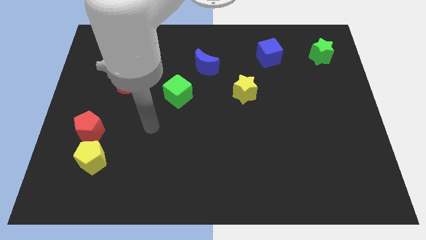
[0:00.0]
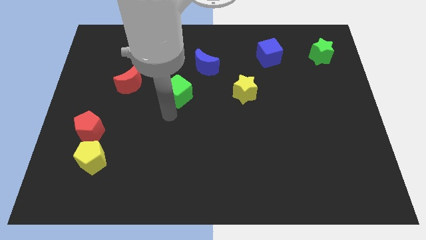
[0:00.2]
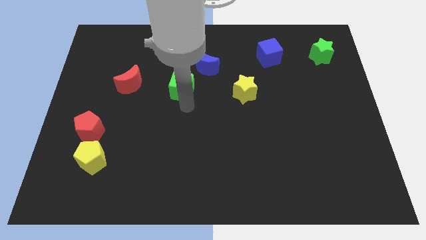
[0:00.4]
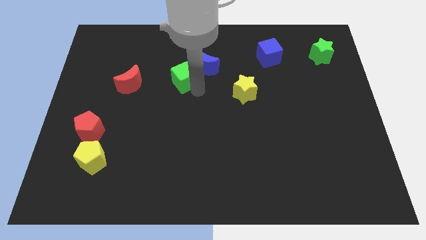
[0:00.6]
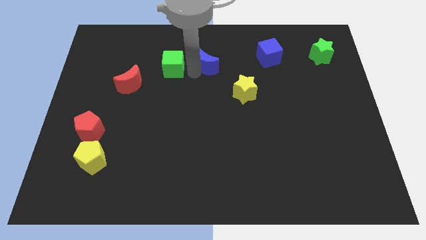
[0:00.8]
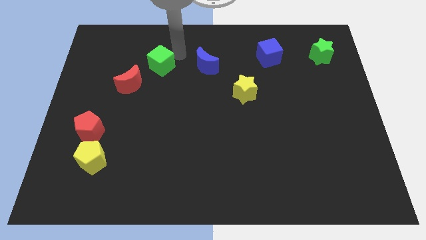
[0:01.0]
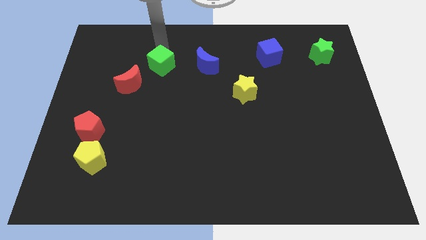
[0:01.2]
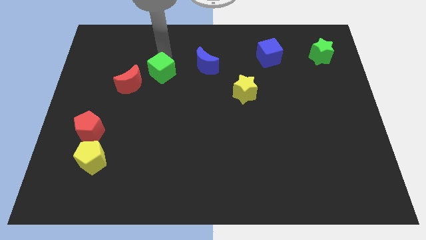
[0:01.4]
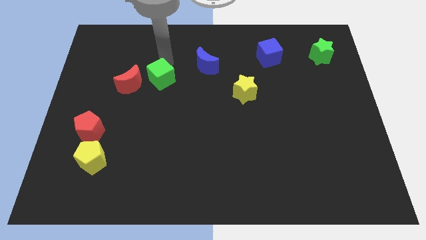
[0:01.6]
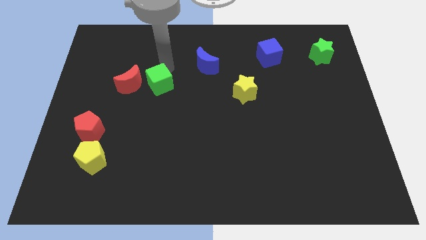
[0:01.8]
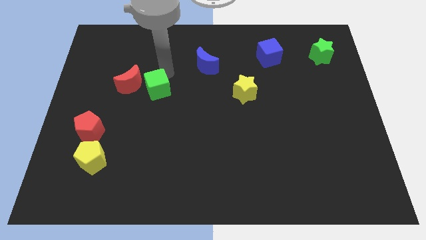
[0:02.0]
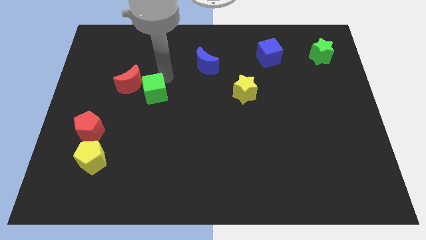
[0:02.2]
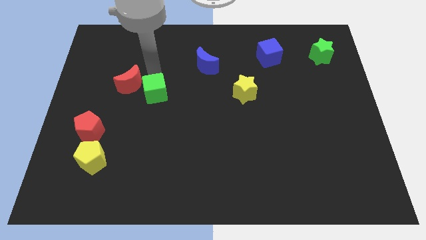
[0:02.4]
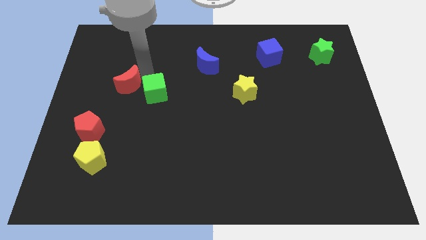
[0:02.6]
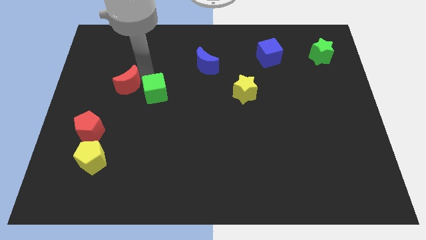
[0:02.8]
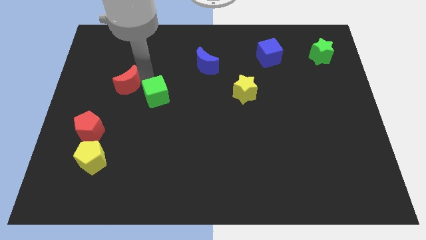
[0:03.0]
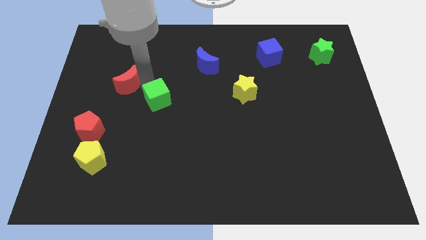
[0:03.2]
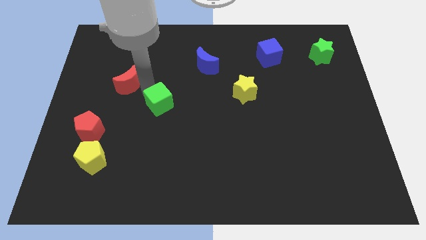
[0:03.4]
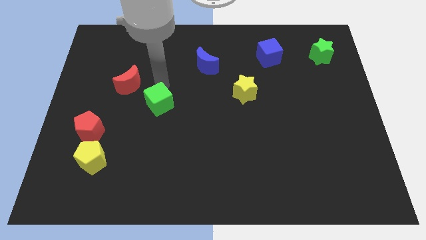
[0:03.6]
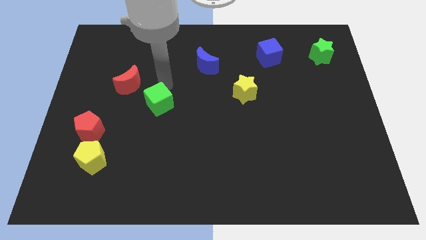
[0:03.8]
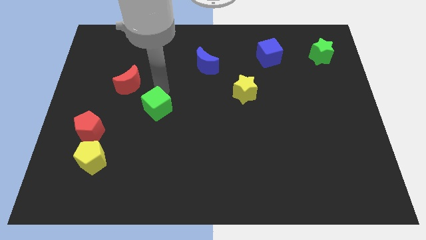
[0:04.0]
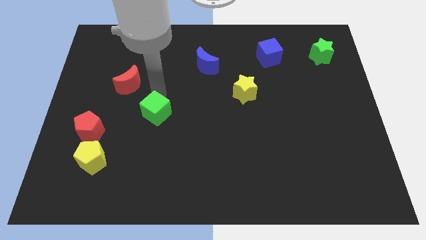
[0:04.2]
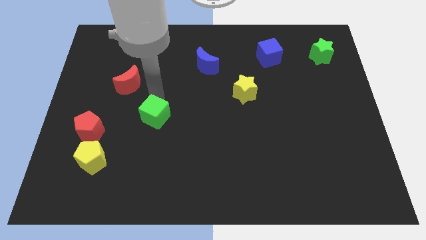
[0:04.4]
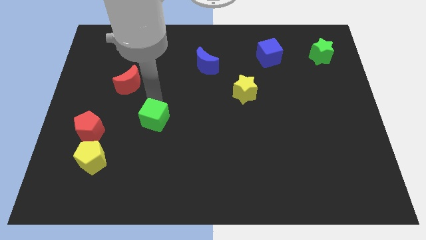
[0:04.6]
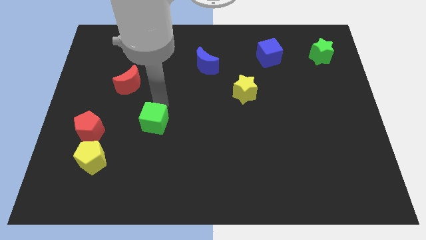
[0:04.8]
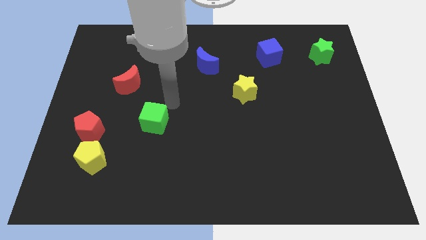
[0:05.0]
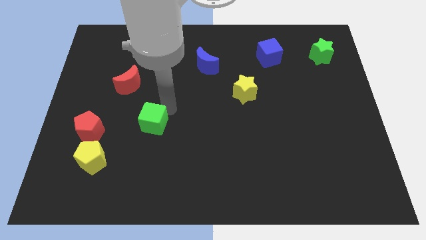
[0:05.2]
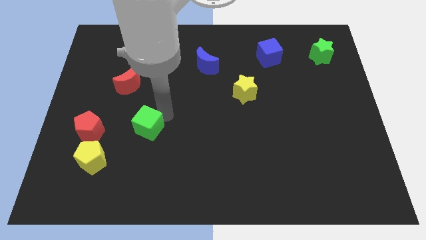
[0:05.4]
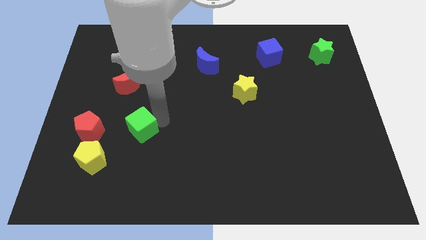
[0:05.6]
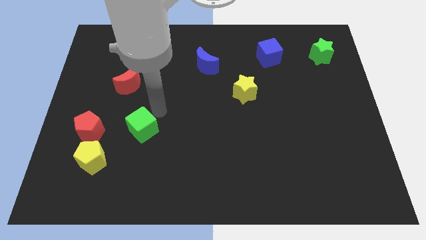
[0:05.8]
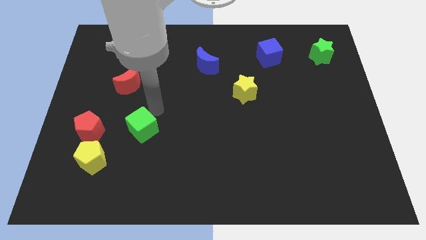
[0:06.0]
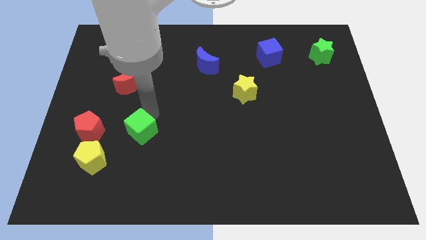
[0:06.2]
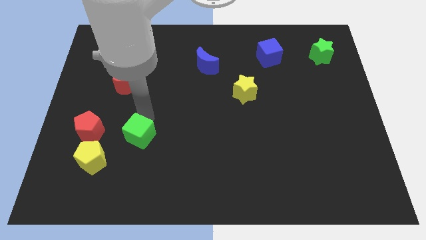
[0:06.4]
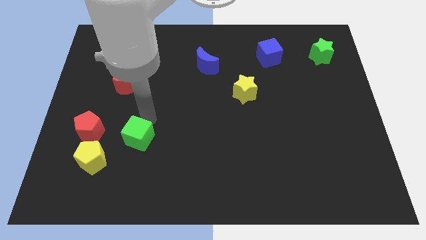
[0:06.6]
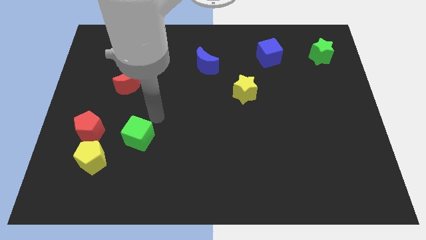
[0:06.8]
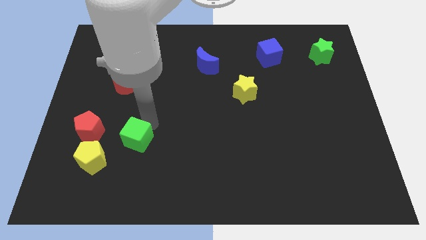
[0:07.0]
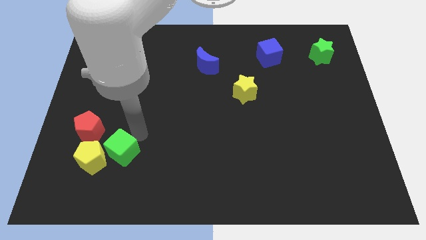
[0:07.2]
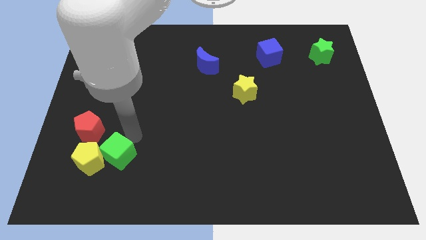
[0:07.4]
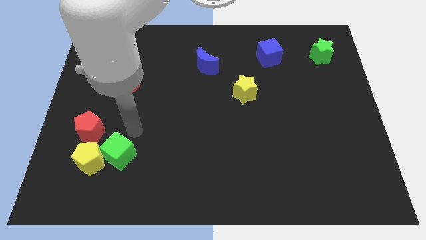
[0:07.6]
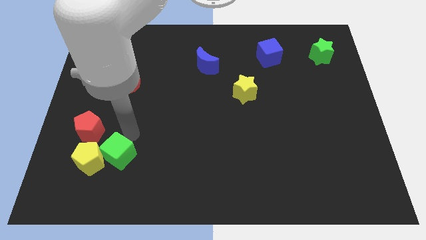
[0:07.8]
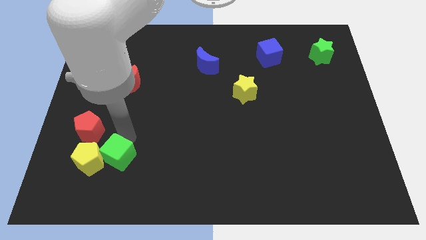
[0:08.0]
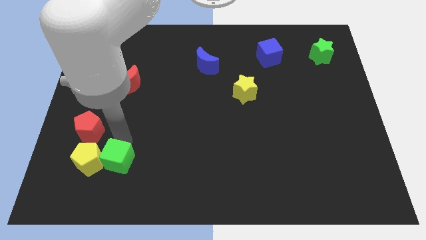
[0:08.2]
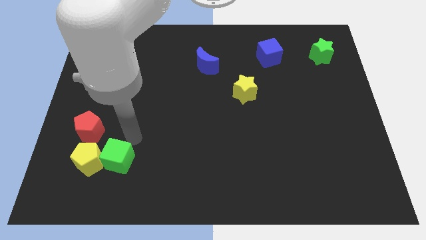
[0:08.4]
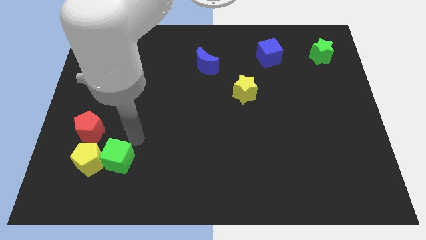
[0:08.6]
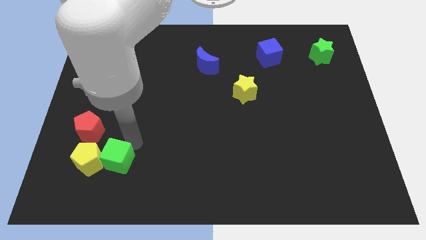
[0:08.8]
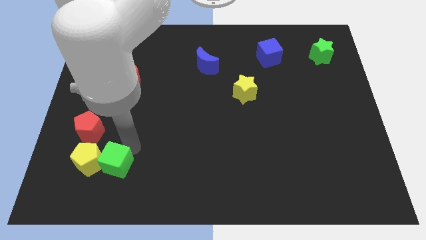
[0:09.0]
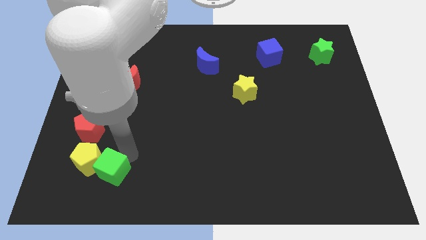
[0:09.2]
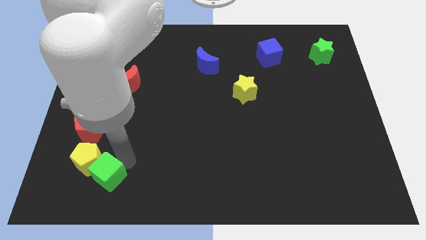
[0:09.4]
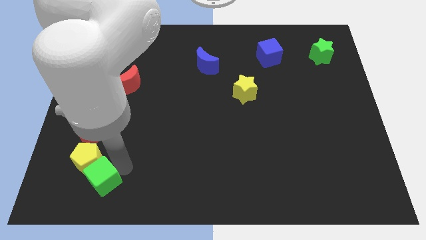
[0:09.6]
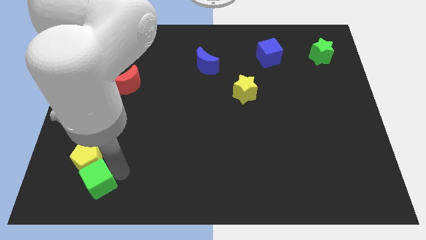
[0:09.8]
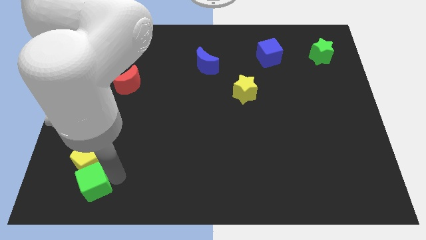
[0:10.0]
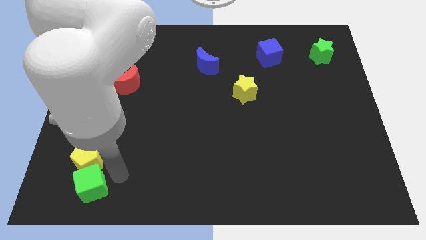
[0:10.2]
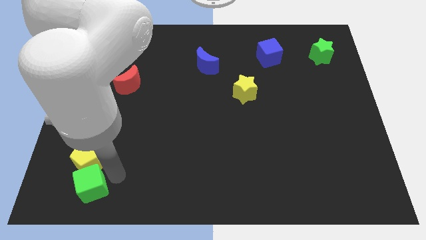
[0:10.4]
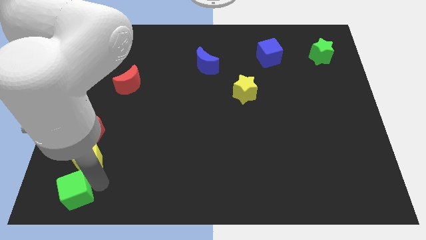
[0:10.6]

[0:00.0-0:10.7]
slide the green cube to the lower left corner

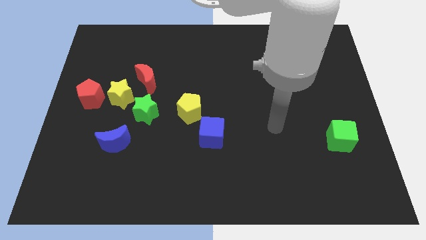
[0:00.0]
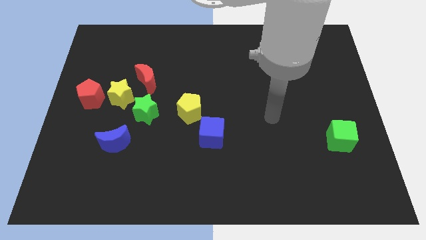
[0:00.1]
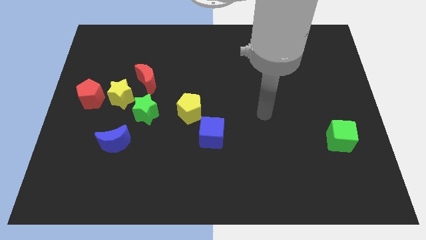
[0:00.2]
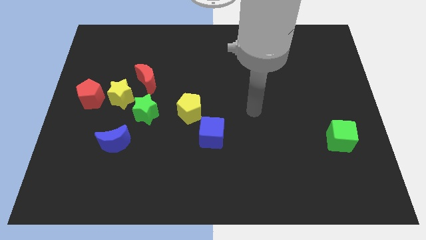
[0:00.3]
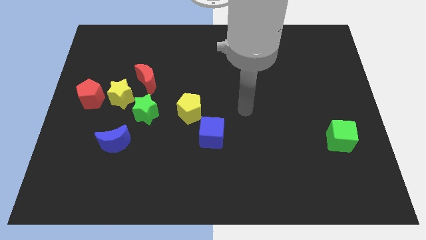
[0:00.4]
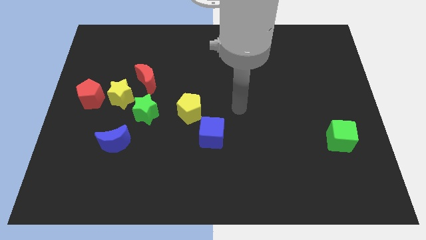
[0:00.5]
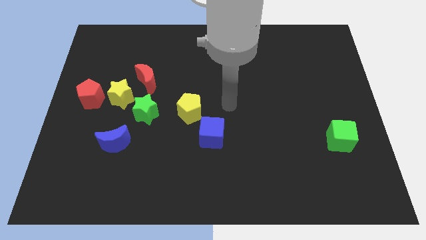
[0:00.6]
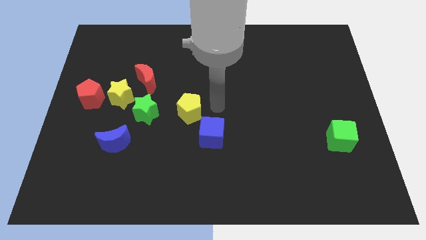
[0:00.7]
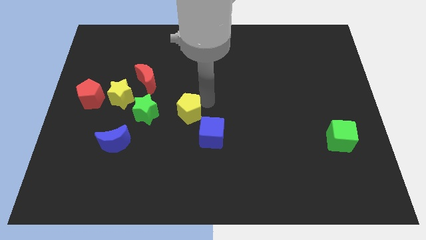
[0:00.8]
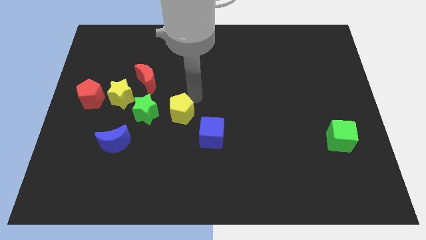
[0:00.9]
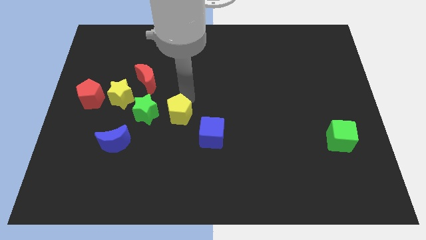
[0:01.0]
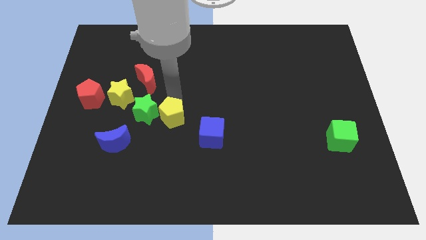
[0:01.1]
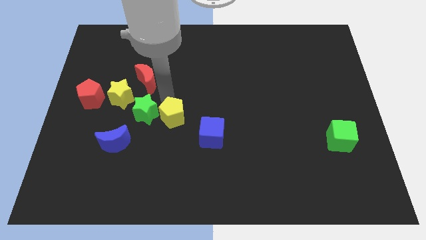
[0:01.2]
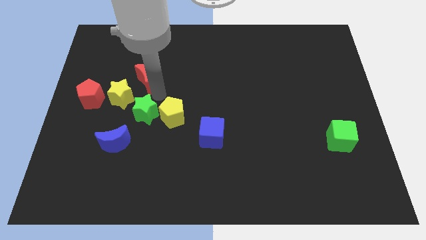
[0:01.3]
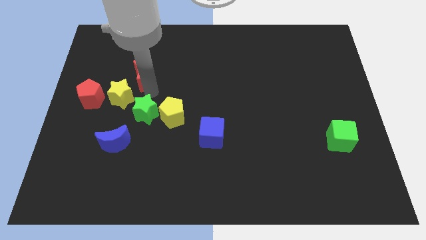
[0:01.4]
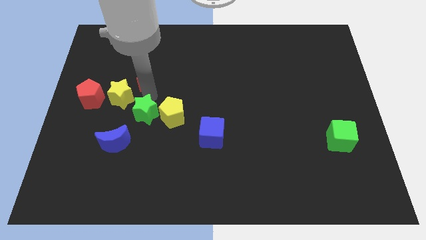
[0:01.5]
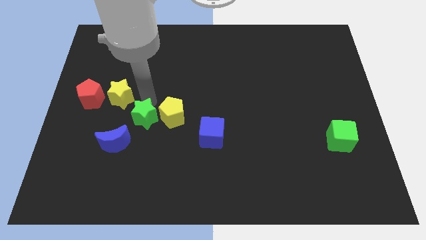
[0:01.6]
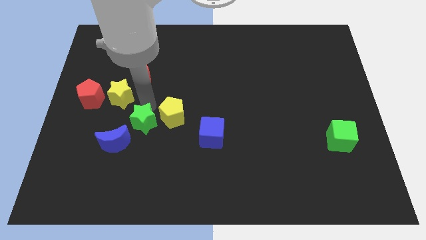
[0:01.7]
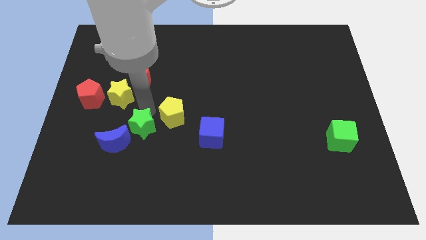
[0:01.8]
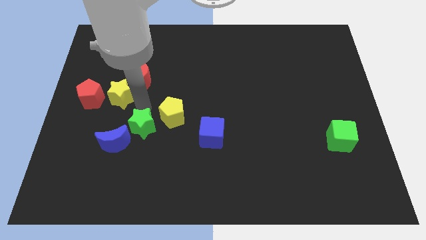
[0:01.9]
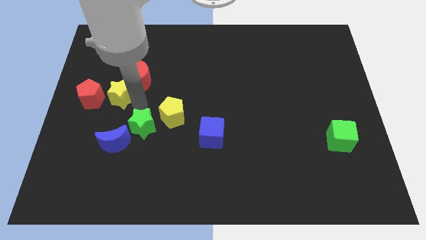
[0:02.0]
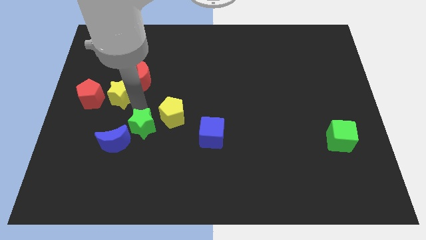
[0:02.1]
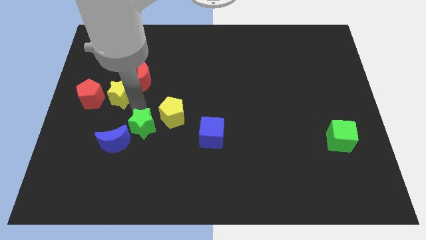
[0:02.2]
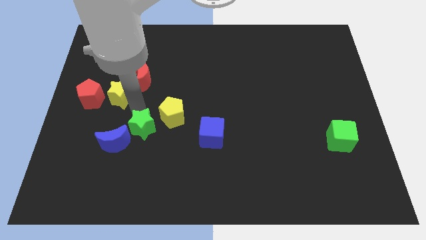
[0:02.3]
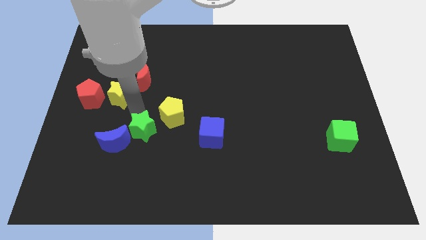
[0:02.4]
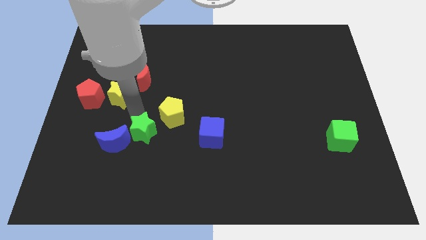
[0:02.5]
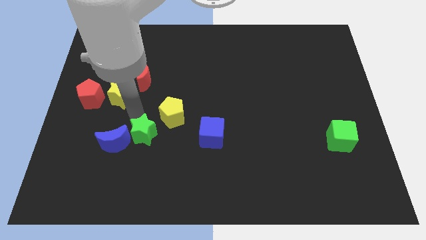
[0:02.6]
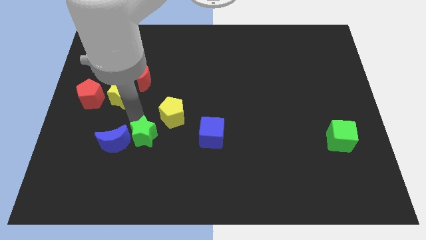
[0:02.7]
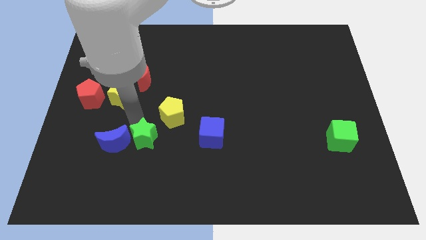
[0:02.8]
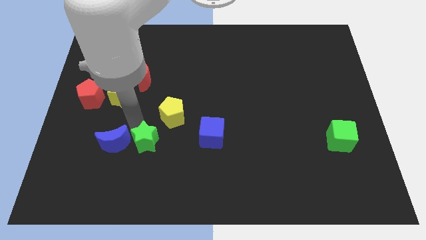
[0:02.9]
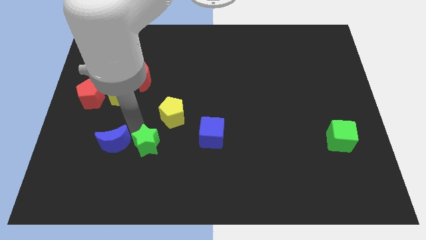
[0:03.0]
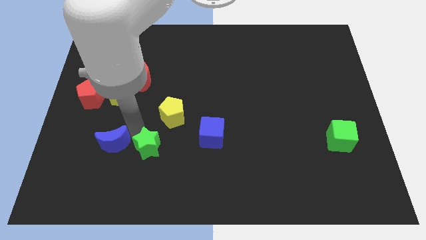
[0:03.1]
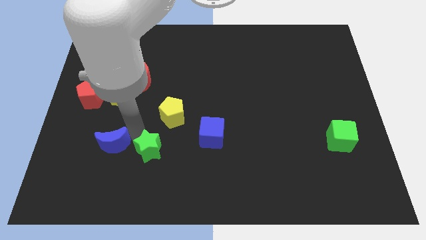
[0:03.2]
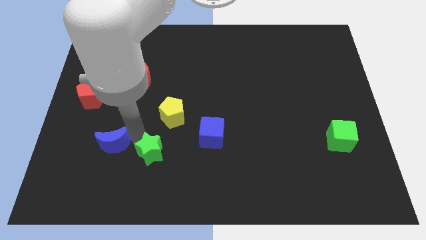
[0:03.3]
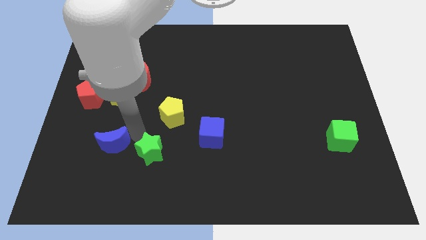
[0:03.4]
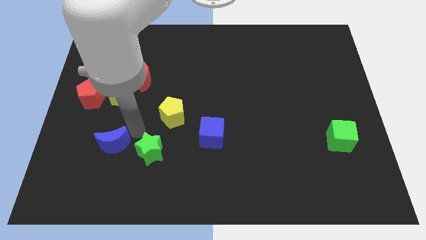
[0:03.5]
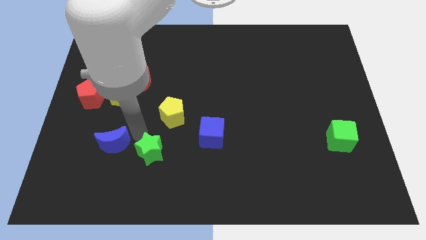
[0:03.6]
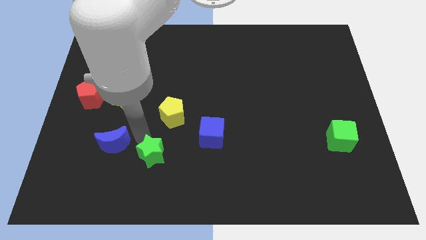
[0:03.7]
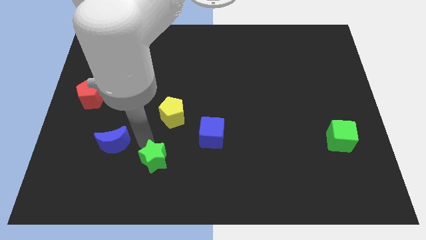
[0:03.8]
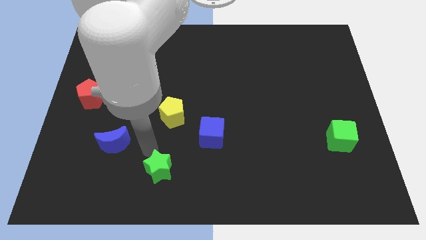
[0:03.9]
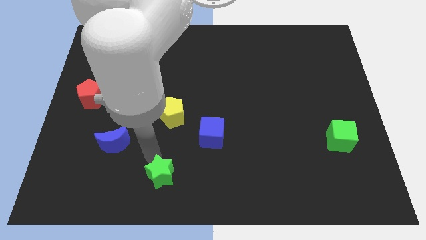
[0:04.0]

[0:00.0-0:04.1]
put the green star to the bottom side
